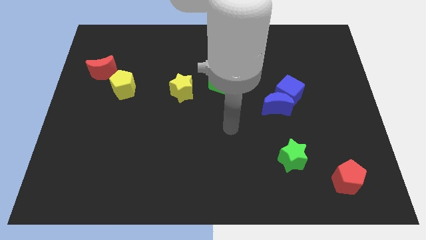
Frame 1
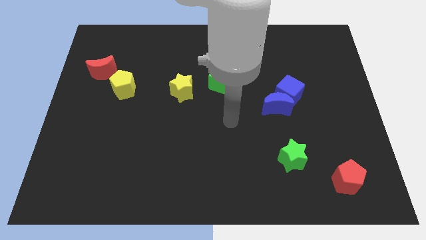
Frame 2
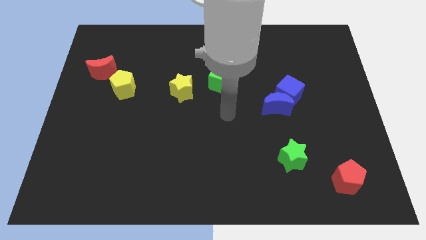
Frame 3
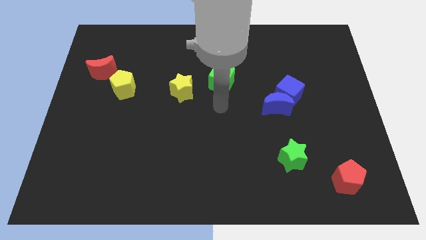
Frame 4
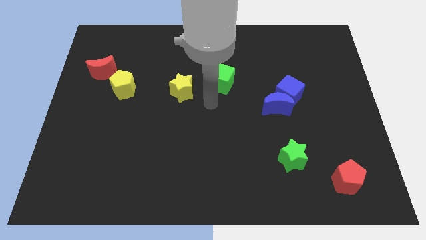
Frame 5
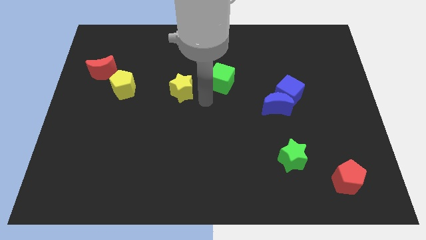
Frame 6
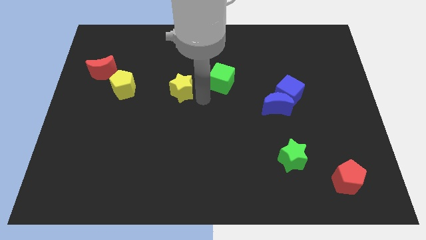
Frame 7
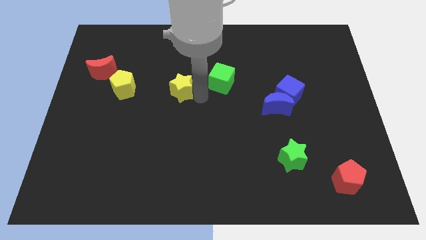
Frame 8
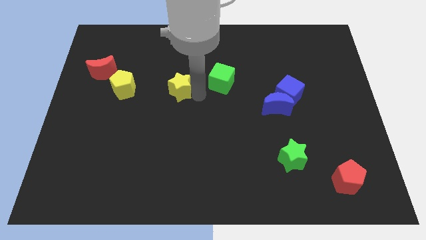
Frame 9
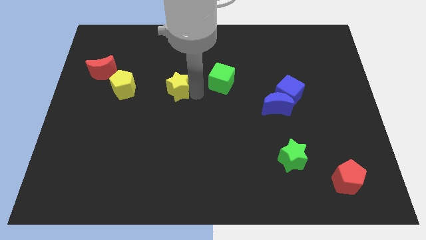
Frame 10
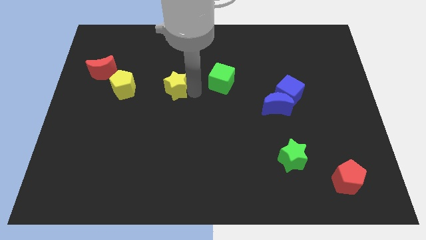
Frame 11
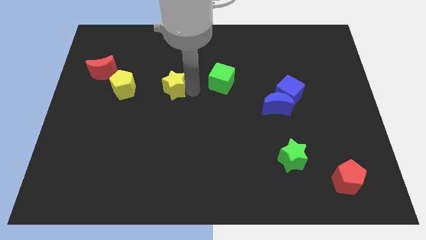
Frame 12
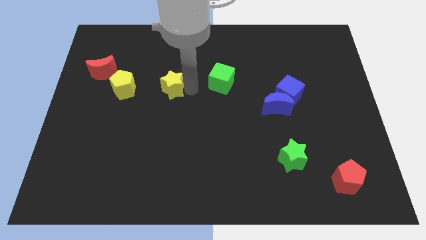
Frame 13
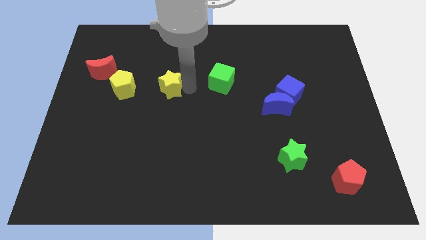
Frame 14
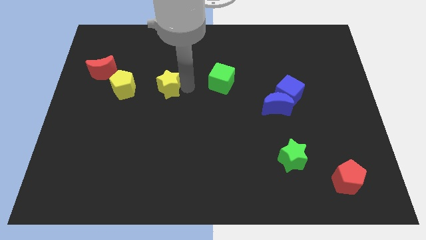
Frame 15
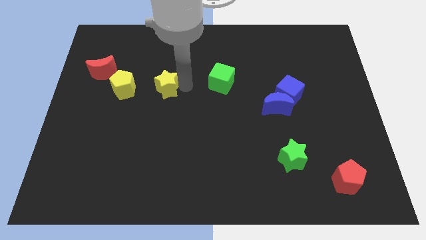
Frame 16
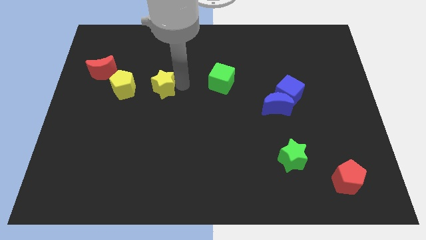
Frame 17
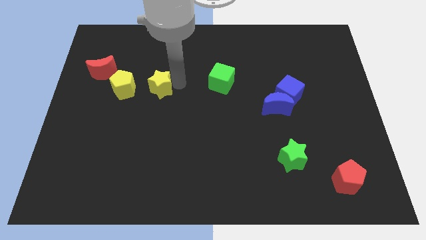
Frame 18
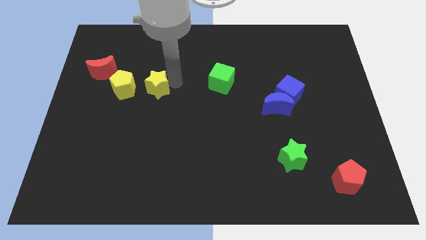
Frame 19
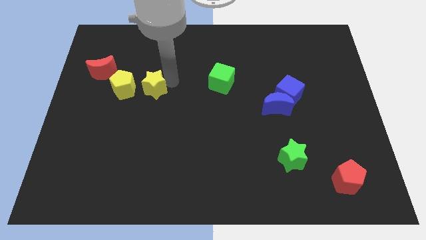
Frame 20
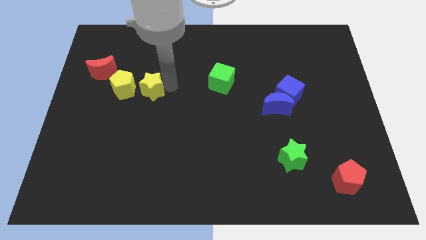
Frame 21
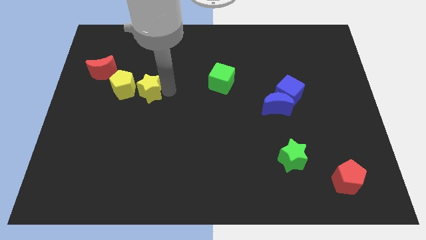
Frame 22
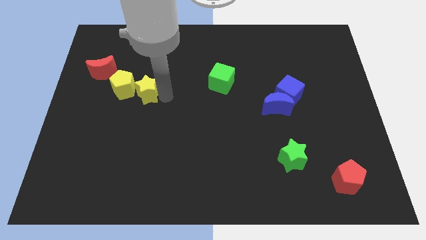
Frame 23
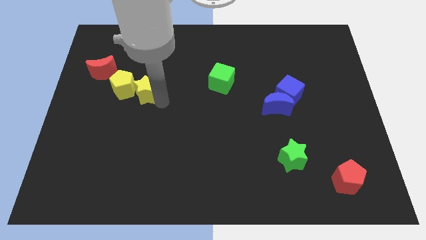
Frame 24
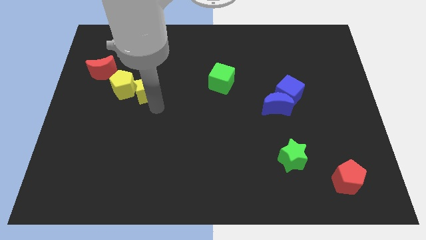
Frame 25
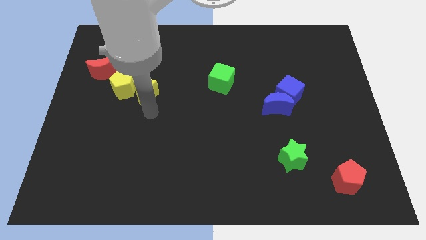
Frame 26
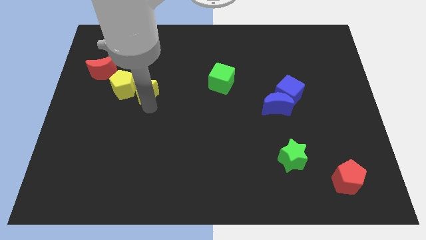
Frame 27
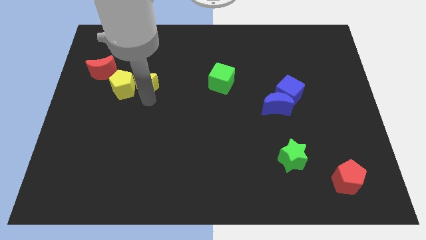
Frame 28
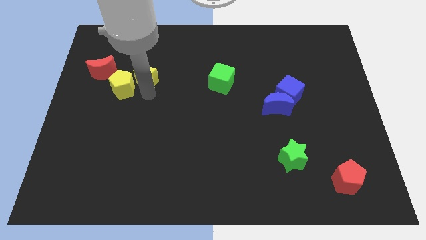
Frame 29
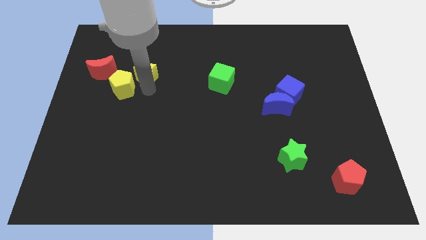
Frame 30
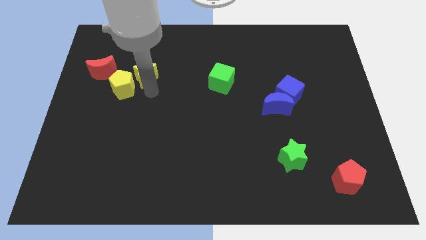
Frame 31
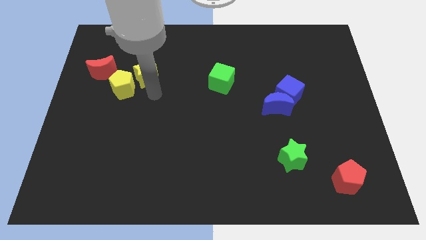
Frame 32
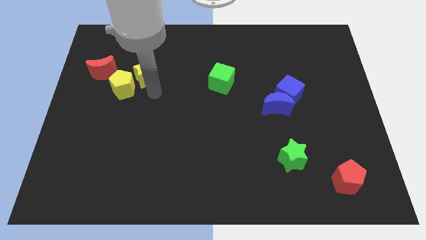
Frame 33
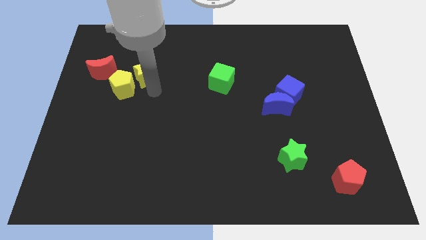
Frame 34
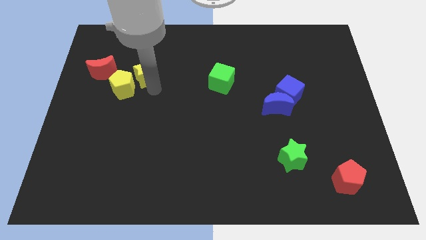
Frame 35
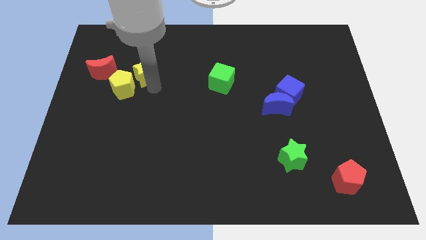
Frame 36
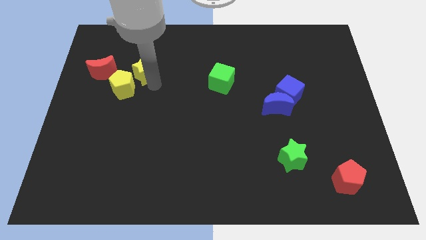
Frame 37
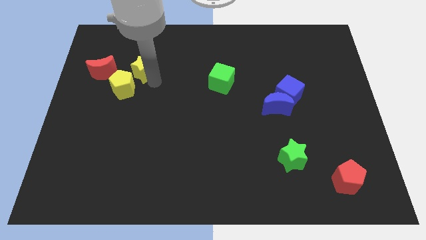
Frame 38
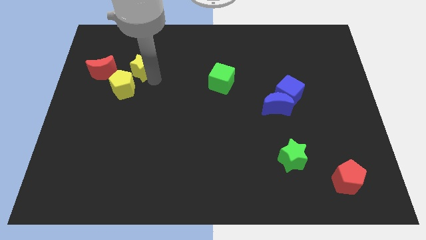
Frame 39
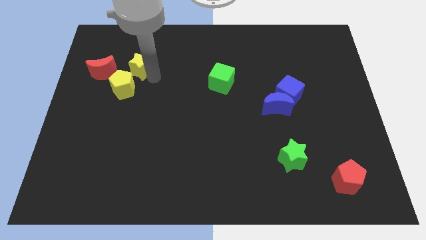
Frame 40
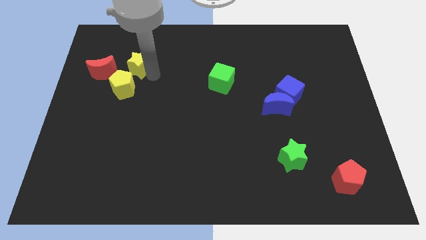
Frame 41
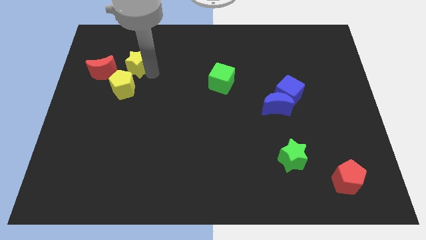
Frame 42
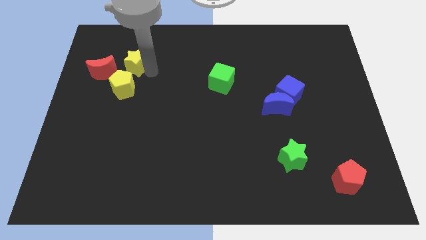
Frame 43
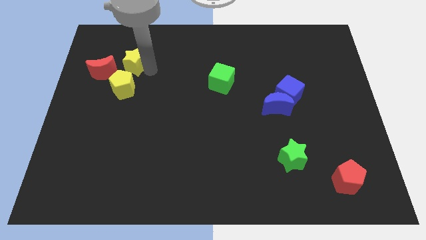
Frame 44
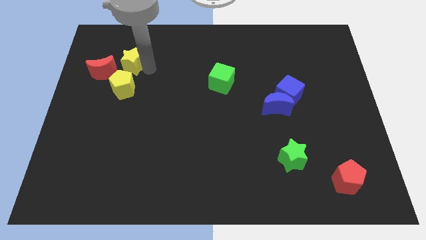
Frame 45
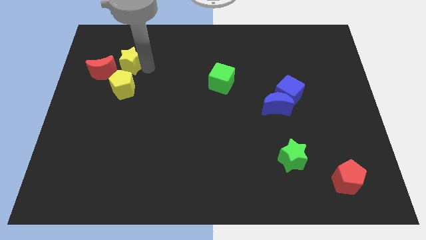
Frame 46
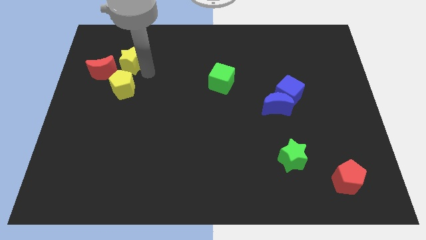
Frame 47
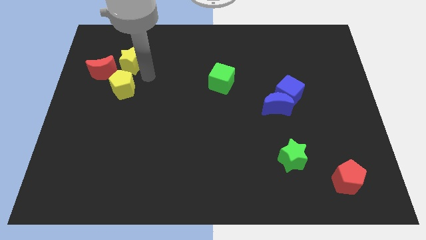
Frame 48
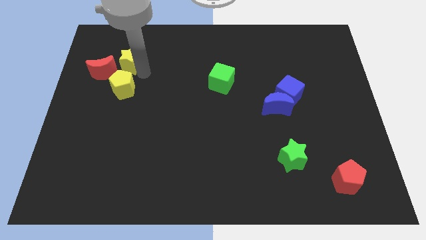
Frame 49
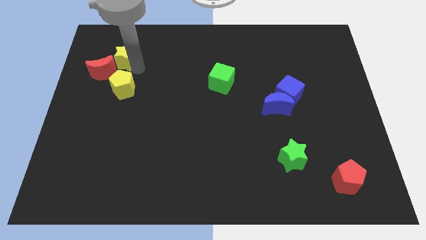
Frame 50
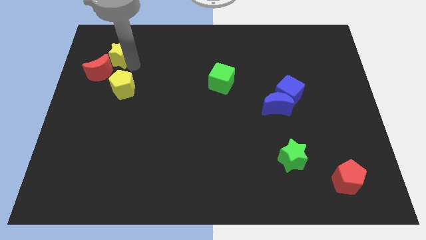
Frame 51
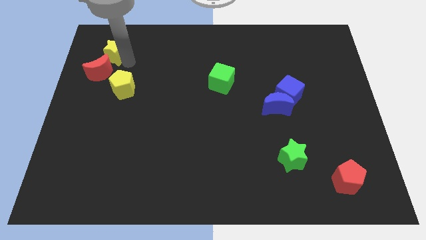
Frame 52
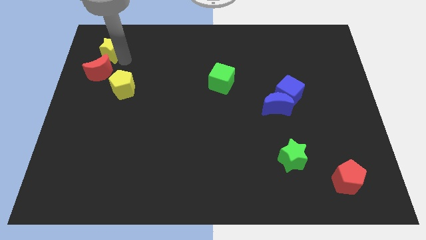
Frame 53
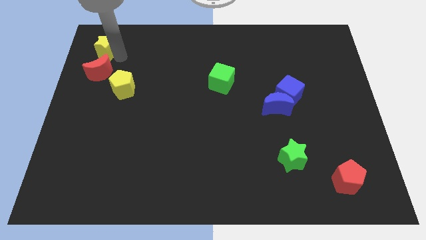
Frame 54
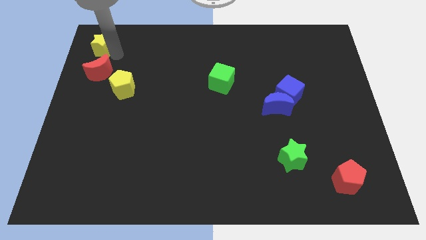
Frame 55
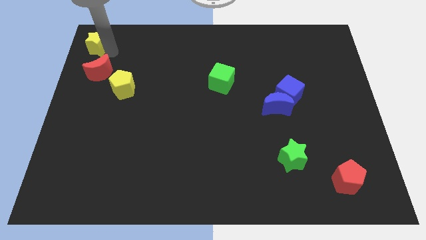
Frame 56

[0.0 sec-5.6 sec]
push the yellow star to the top left corner

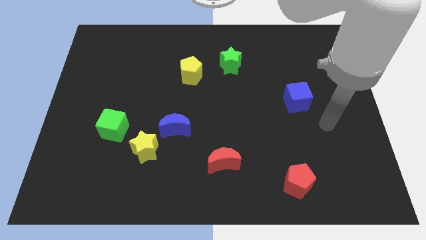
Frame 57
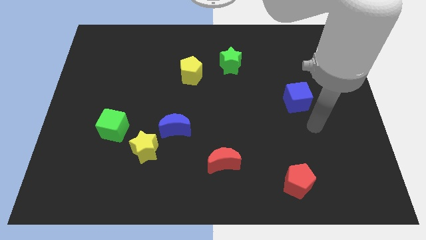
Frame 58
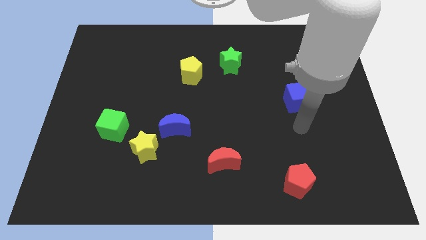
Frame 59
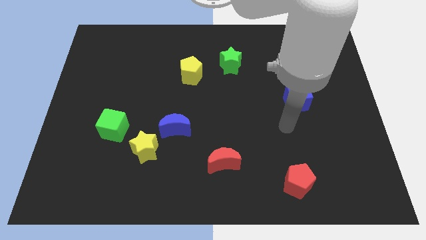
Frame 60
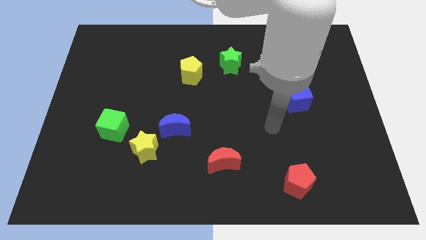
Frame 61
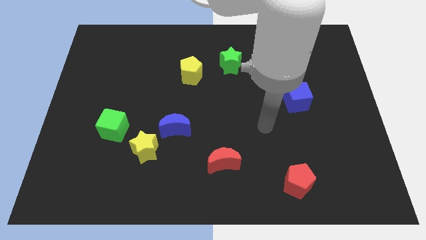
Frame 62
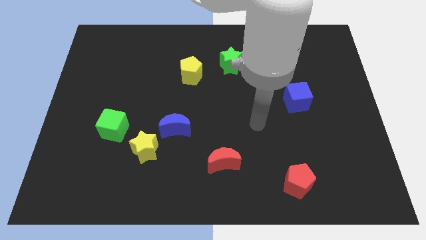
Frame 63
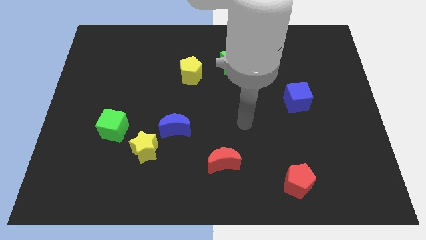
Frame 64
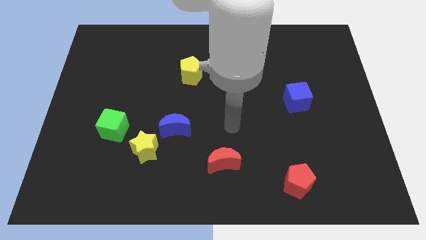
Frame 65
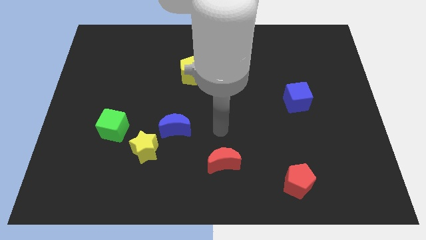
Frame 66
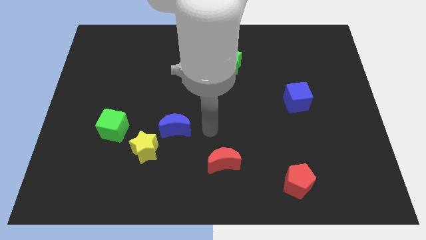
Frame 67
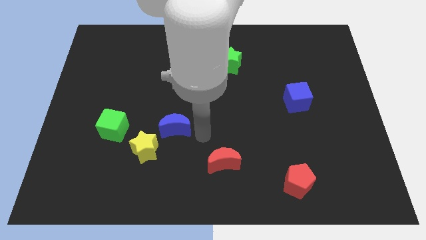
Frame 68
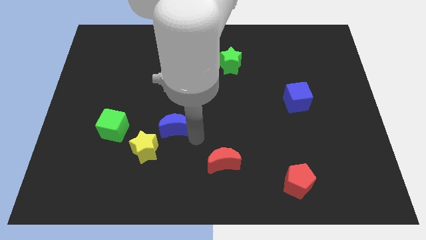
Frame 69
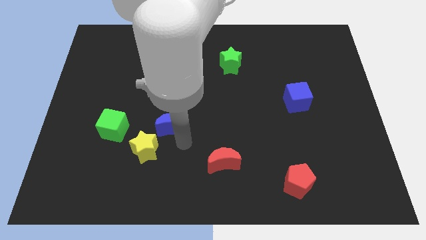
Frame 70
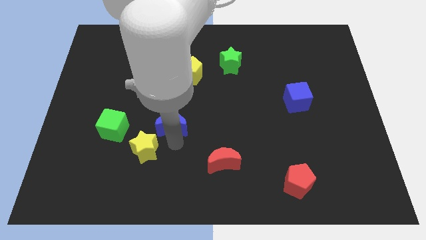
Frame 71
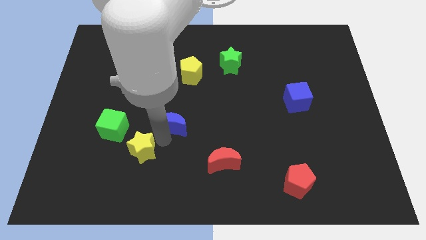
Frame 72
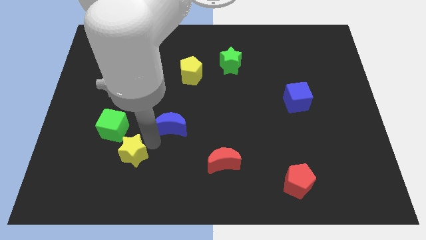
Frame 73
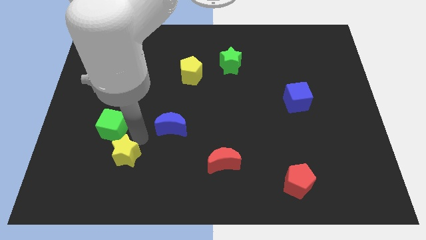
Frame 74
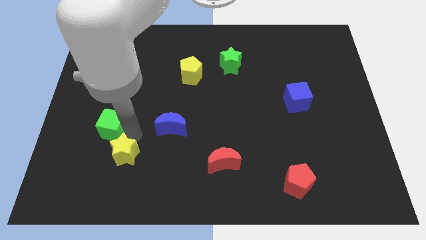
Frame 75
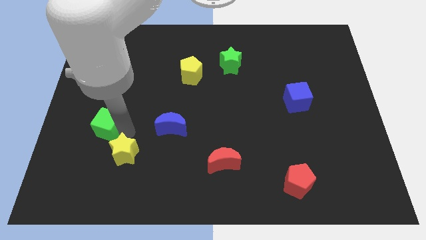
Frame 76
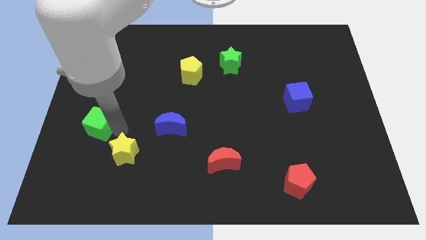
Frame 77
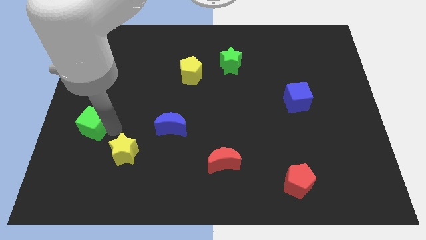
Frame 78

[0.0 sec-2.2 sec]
push the green cube to the left side
